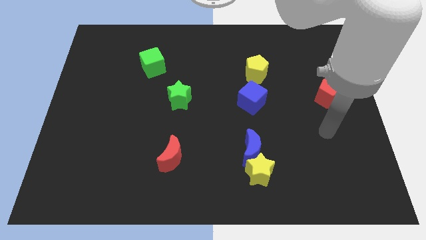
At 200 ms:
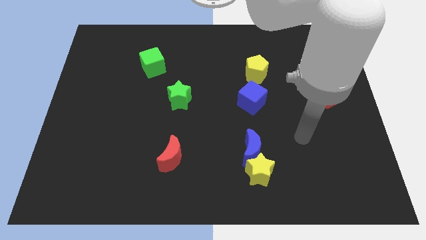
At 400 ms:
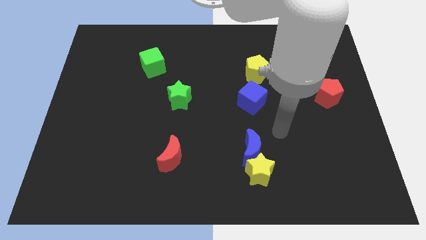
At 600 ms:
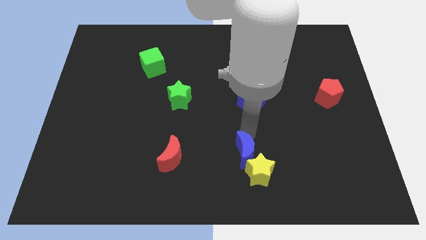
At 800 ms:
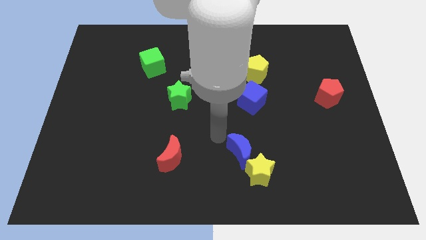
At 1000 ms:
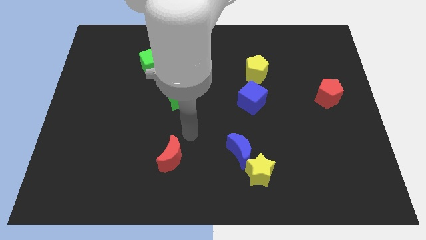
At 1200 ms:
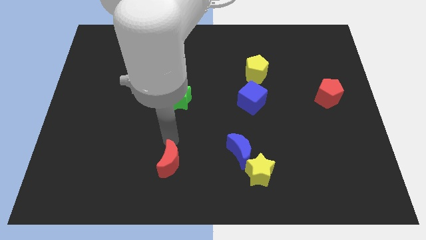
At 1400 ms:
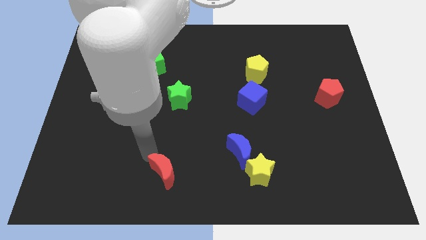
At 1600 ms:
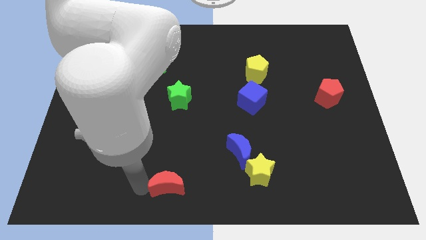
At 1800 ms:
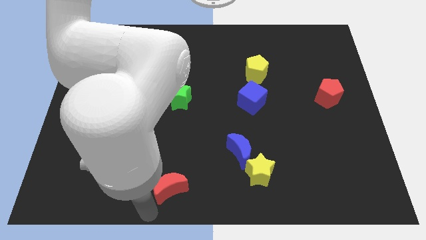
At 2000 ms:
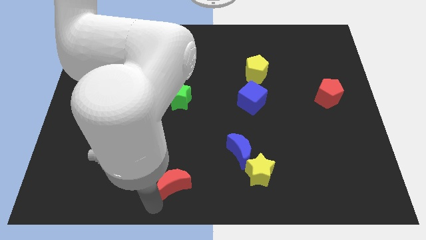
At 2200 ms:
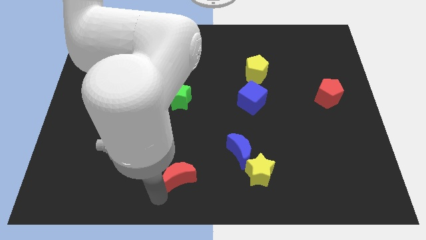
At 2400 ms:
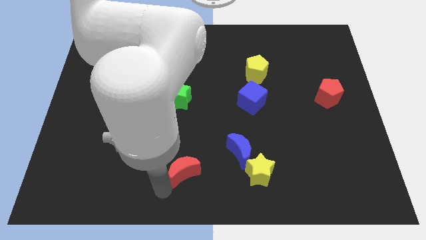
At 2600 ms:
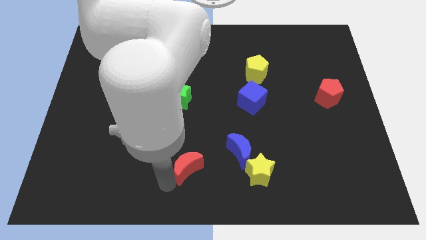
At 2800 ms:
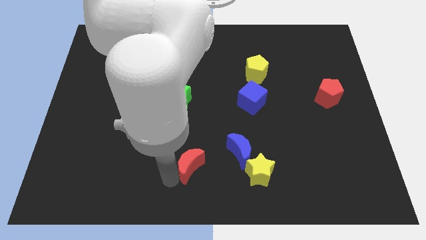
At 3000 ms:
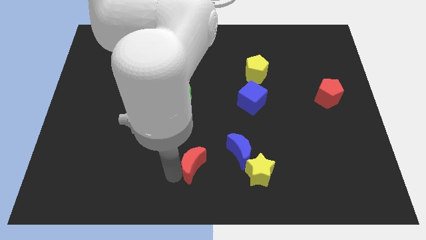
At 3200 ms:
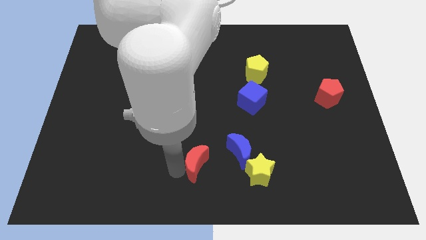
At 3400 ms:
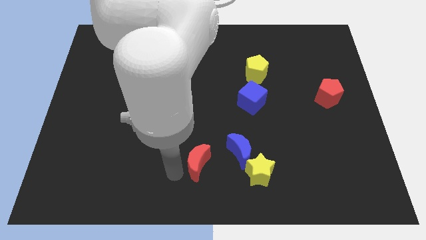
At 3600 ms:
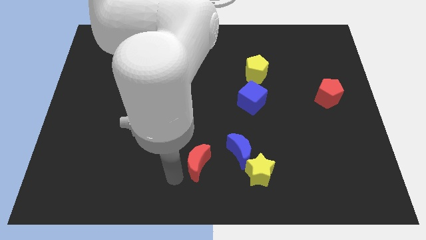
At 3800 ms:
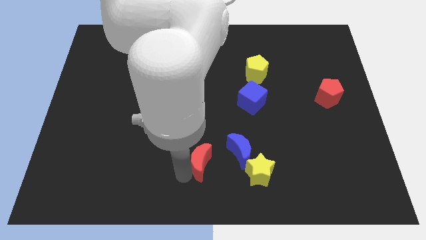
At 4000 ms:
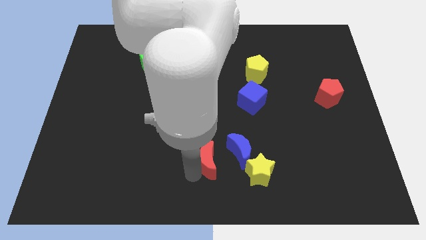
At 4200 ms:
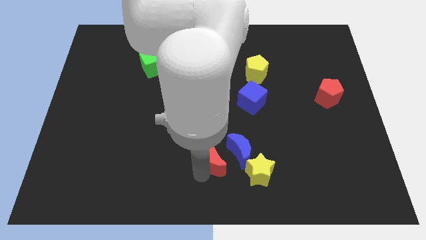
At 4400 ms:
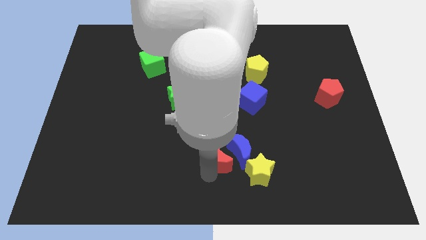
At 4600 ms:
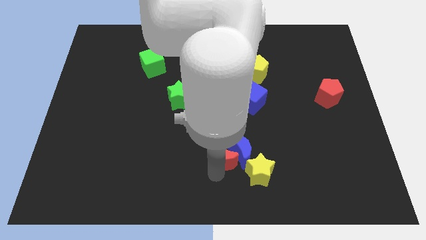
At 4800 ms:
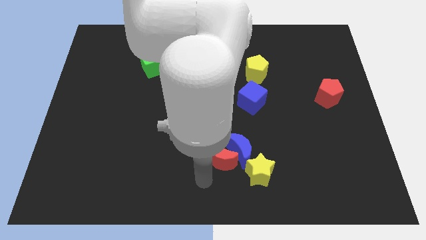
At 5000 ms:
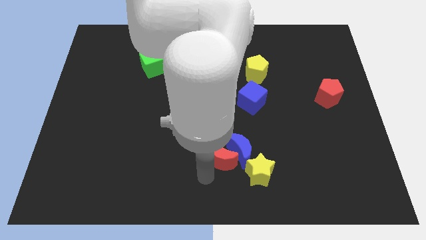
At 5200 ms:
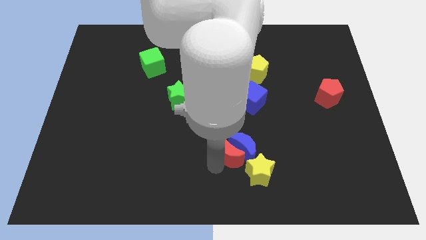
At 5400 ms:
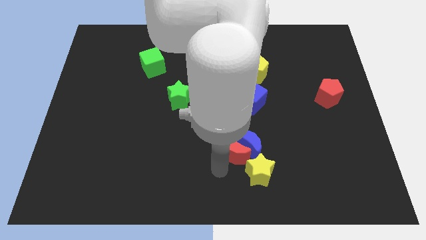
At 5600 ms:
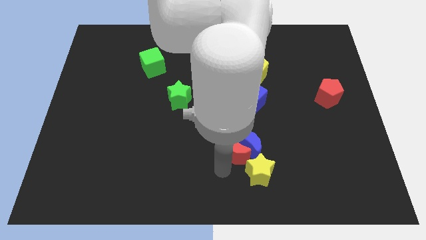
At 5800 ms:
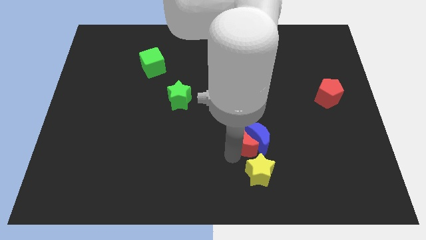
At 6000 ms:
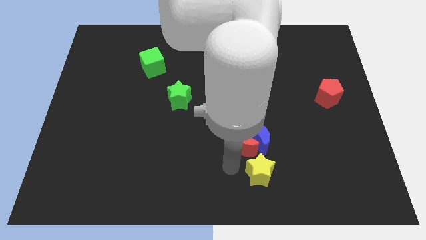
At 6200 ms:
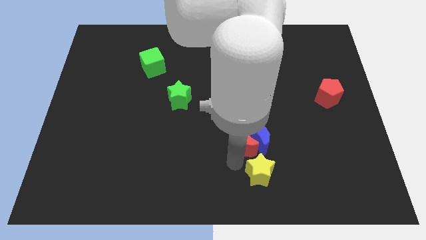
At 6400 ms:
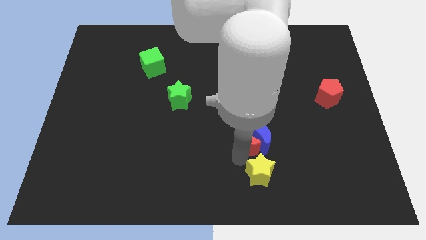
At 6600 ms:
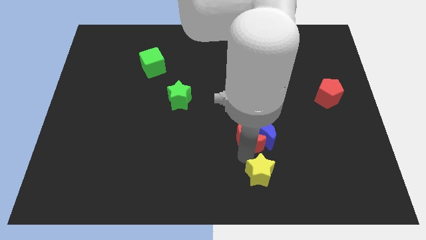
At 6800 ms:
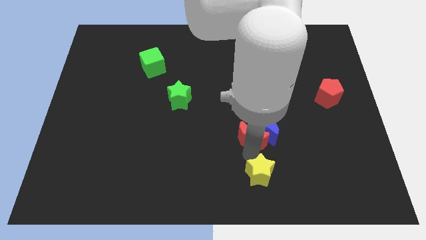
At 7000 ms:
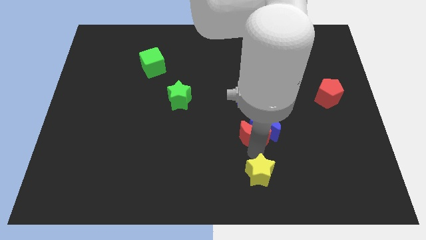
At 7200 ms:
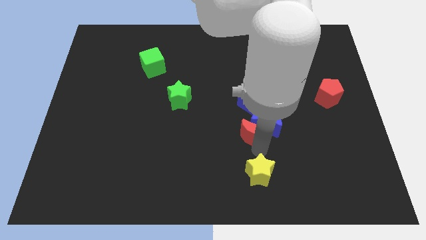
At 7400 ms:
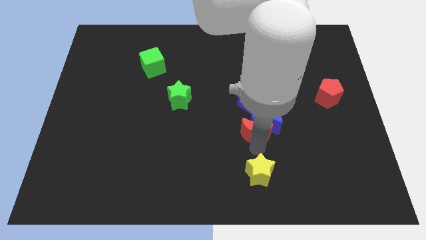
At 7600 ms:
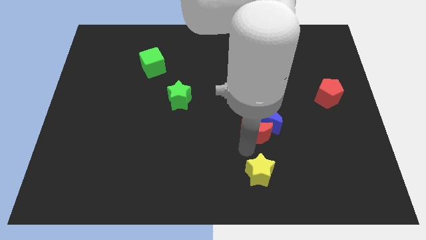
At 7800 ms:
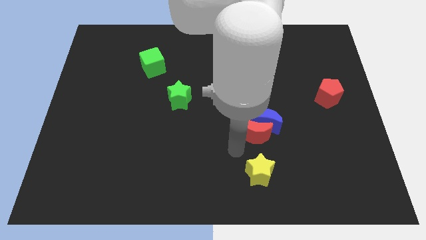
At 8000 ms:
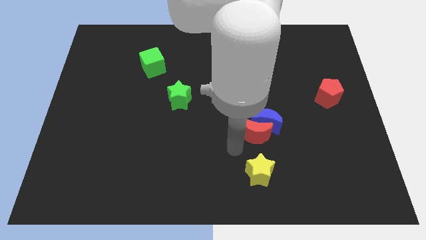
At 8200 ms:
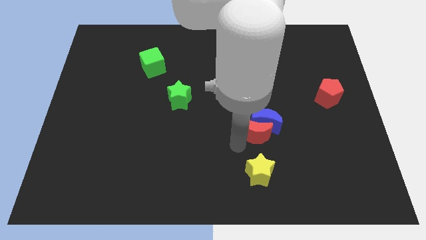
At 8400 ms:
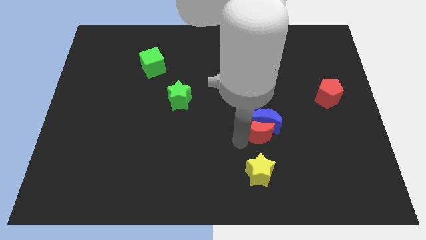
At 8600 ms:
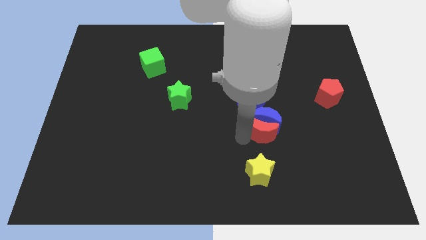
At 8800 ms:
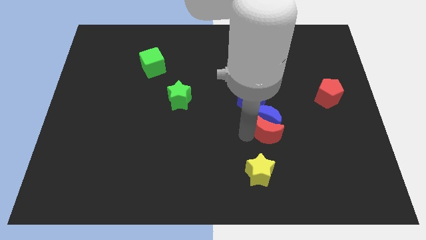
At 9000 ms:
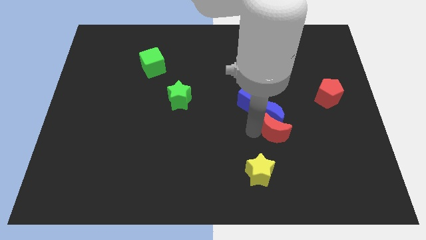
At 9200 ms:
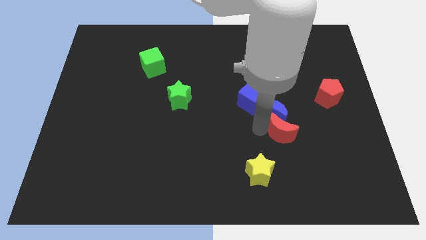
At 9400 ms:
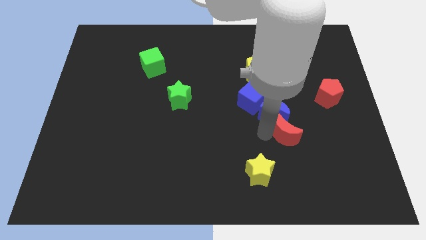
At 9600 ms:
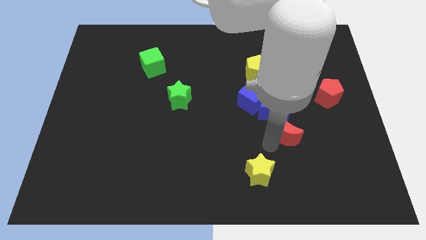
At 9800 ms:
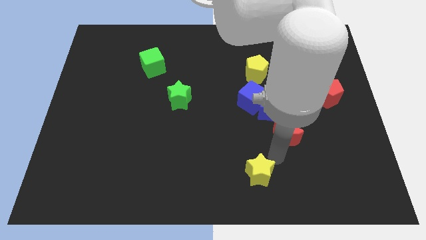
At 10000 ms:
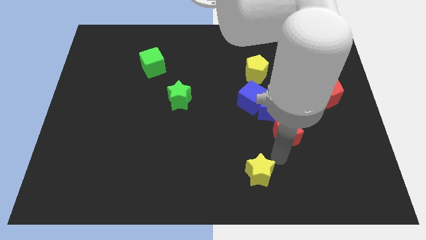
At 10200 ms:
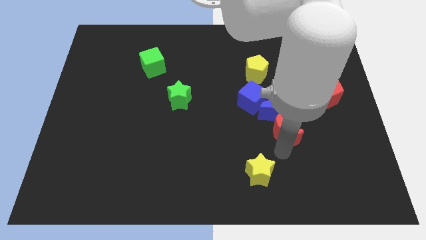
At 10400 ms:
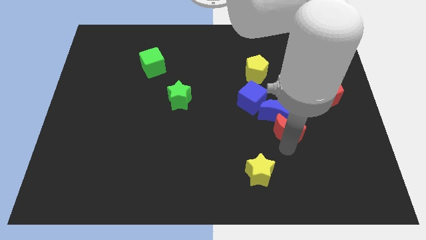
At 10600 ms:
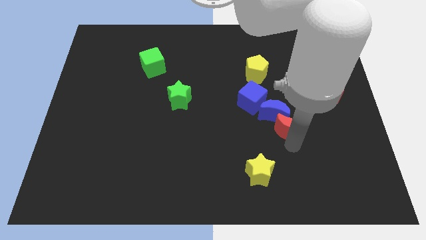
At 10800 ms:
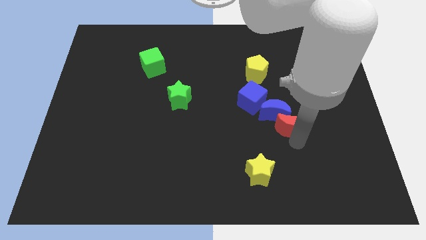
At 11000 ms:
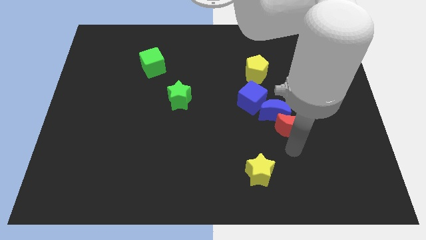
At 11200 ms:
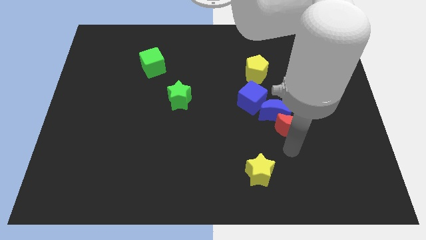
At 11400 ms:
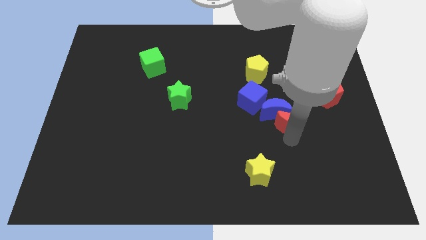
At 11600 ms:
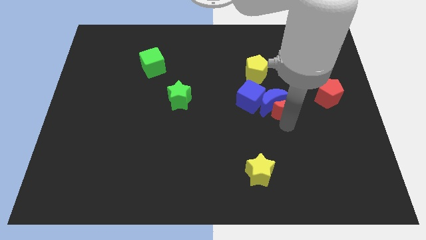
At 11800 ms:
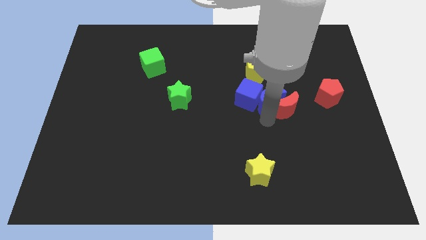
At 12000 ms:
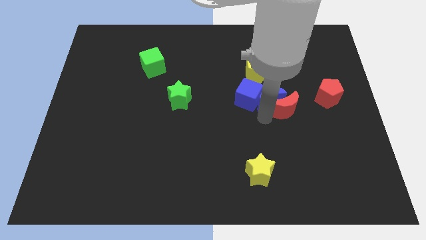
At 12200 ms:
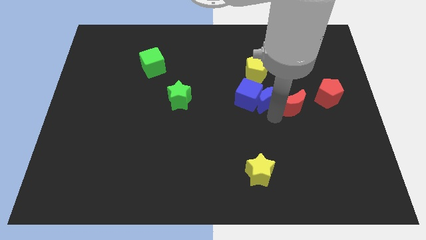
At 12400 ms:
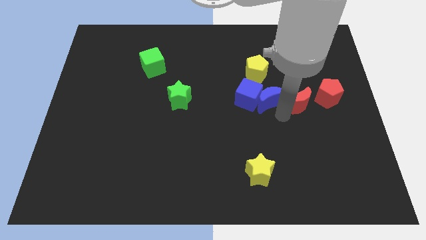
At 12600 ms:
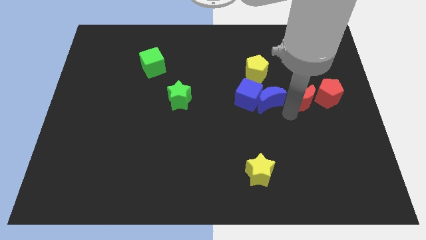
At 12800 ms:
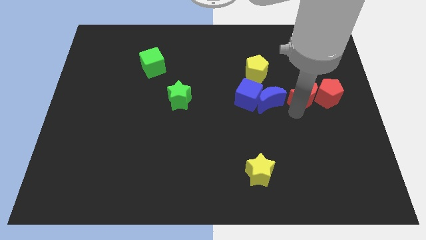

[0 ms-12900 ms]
put the red moon towards the red pentagon

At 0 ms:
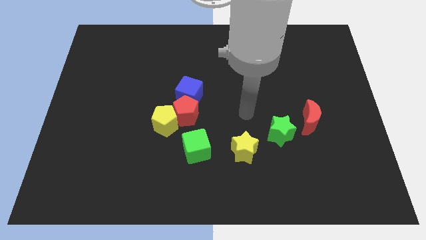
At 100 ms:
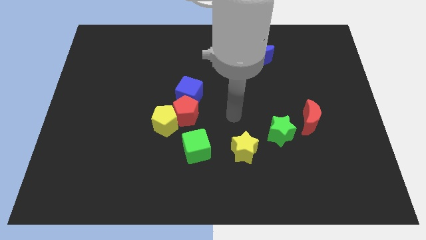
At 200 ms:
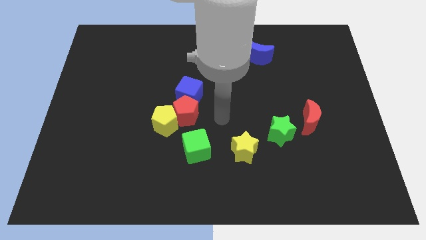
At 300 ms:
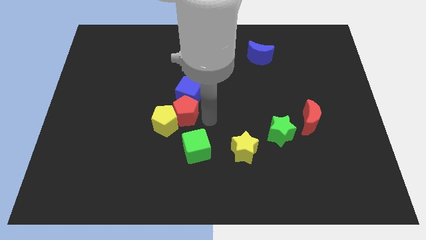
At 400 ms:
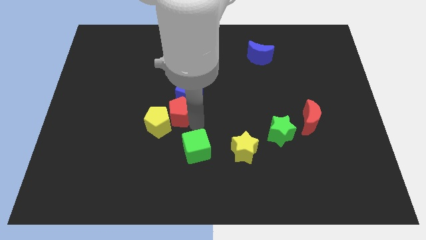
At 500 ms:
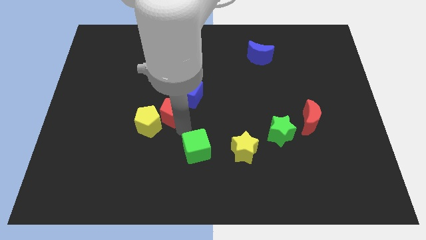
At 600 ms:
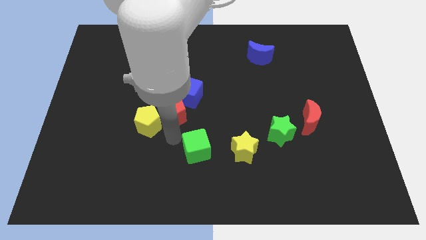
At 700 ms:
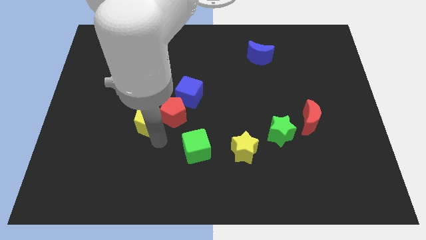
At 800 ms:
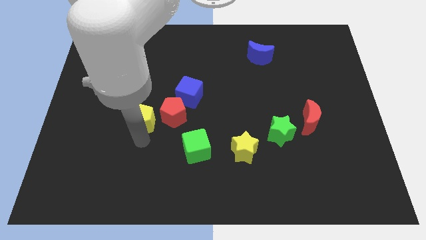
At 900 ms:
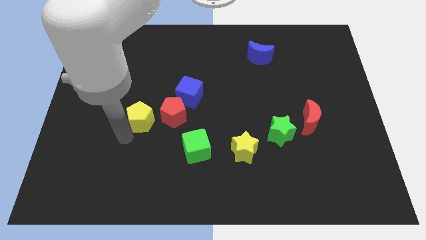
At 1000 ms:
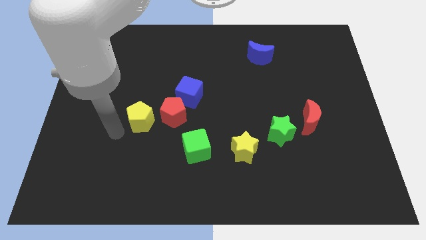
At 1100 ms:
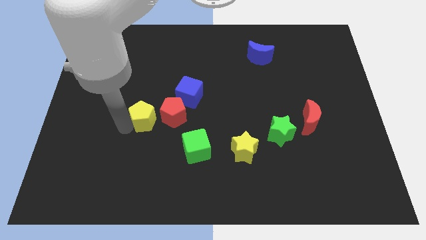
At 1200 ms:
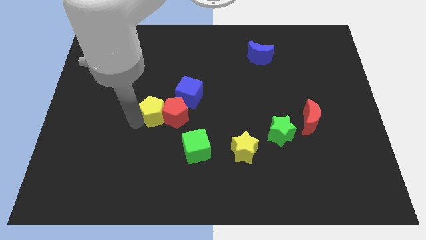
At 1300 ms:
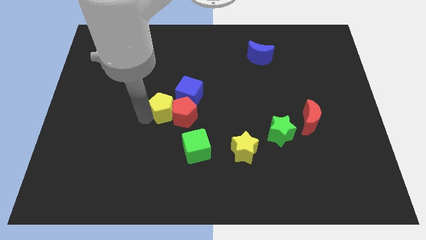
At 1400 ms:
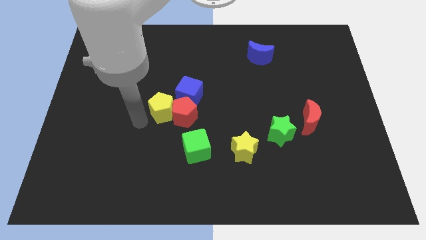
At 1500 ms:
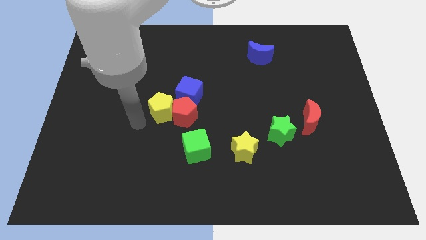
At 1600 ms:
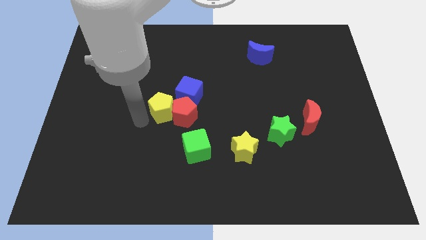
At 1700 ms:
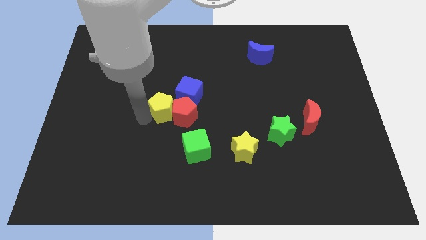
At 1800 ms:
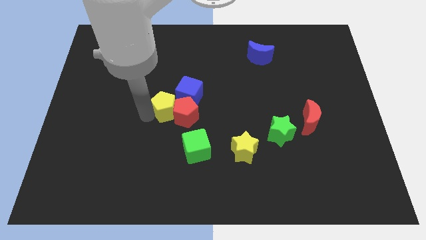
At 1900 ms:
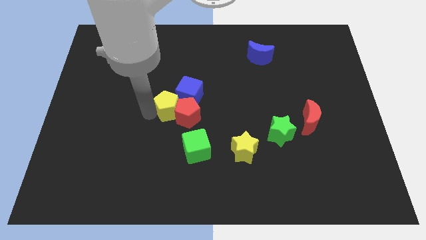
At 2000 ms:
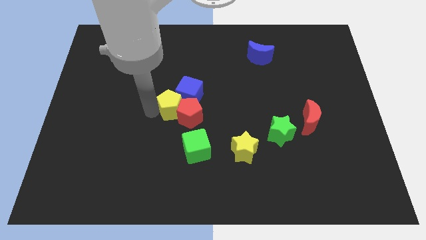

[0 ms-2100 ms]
slide the yellow pentagon next to the blue cube
